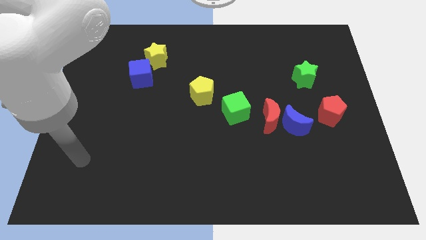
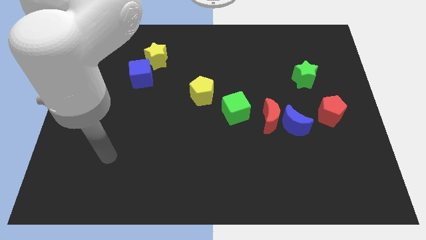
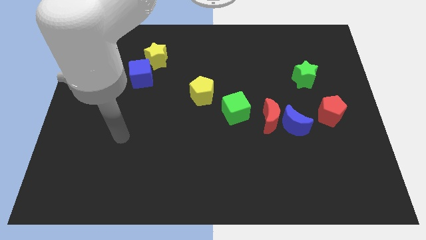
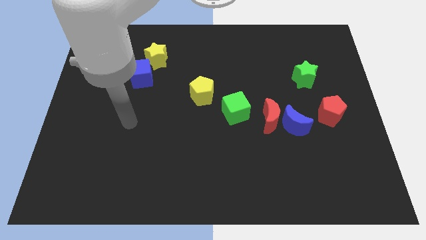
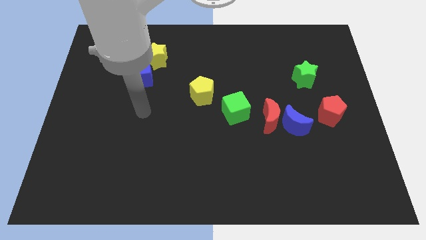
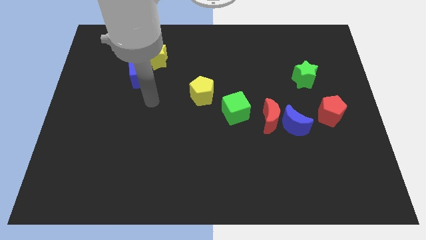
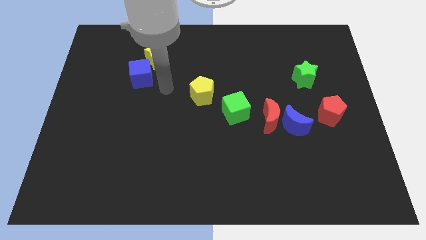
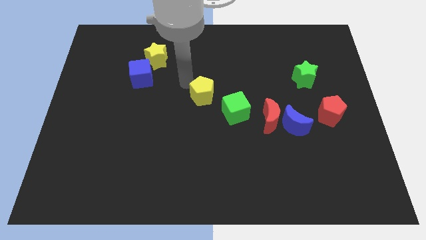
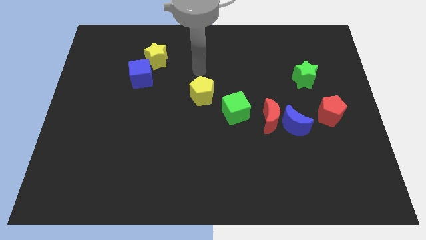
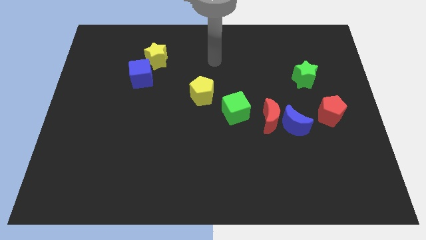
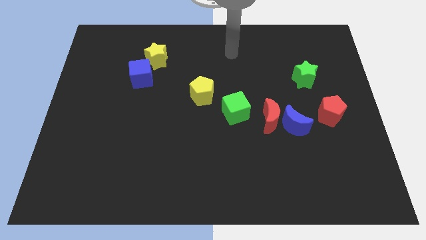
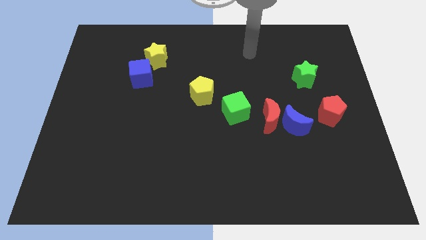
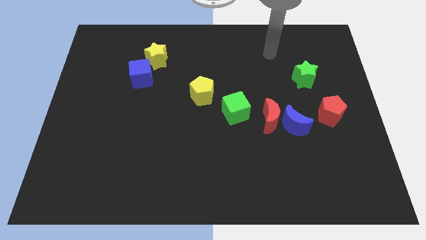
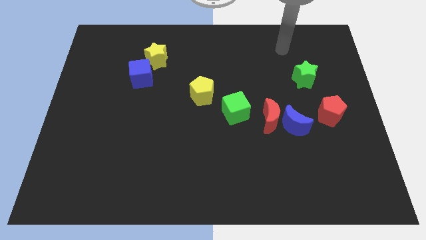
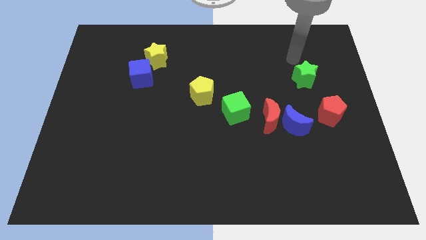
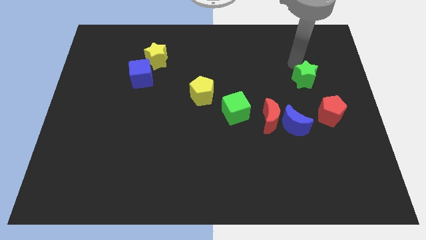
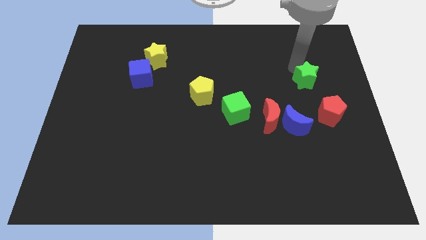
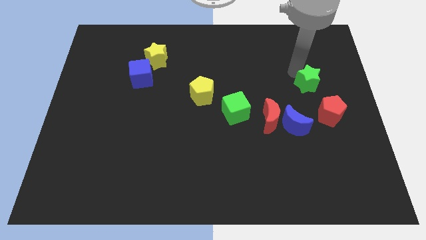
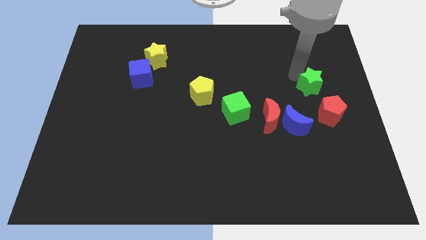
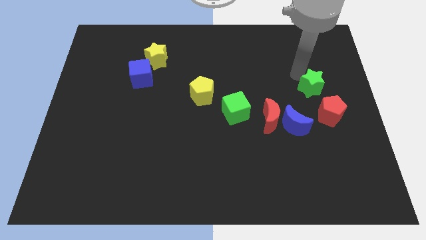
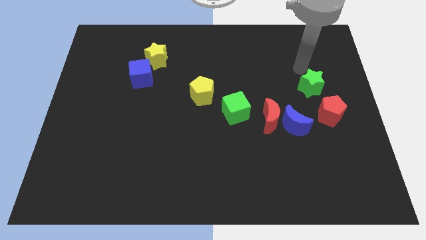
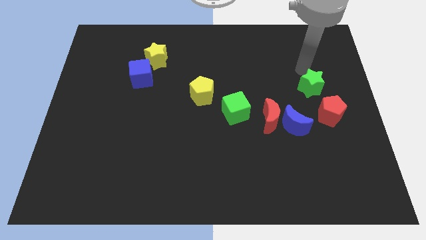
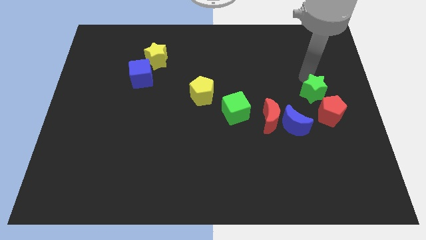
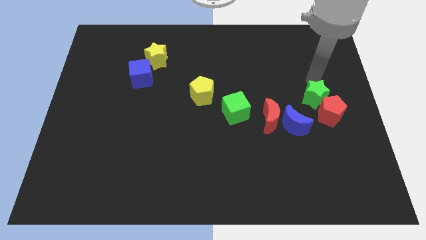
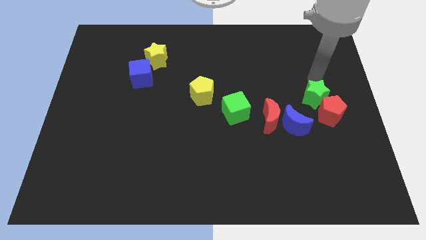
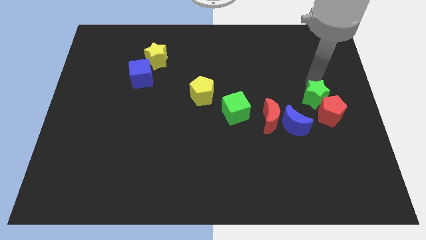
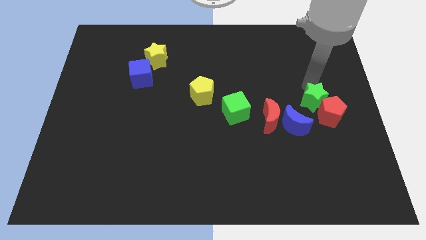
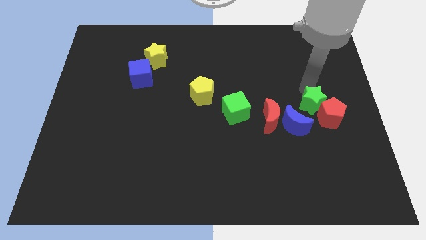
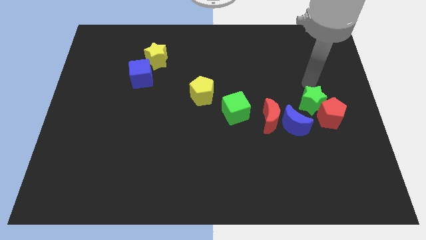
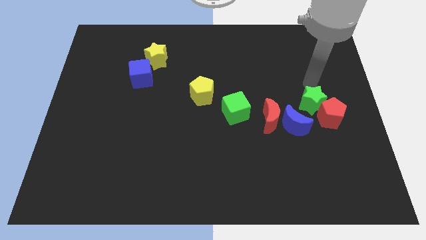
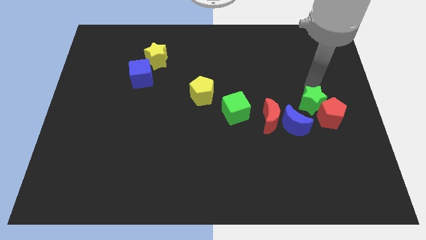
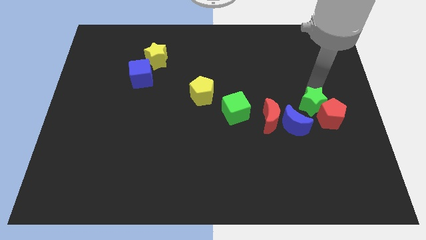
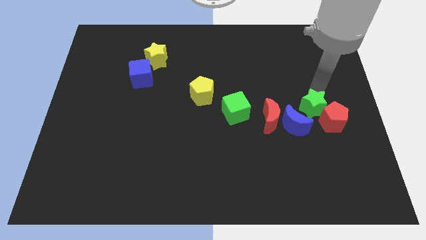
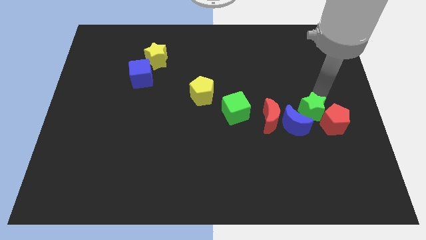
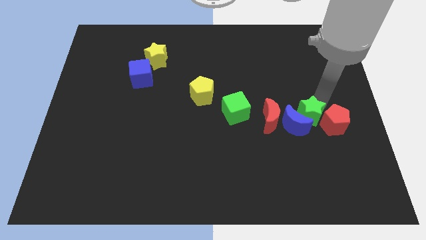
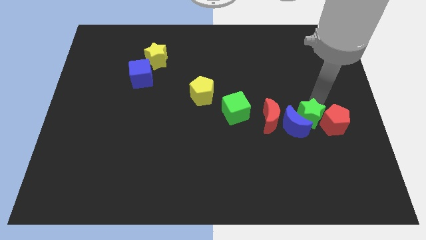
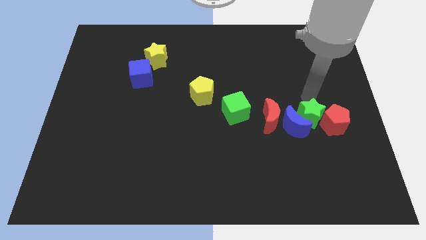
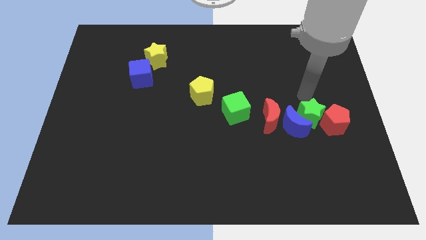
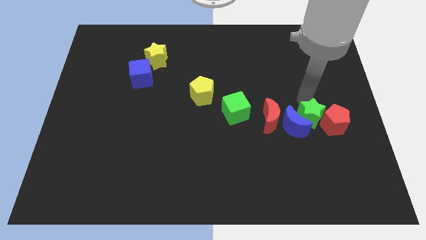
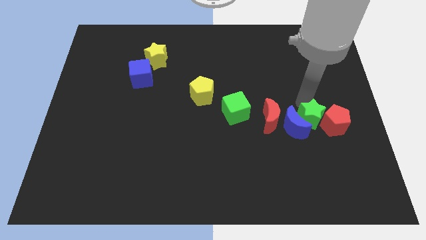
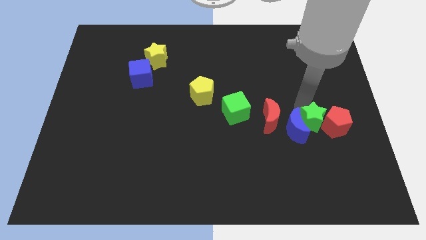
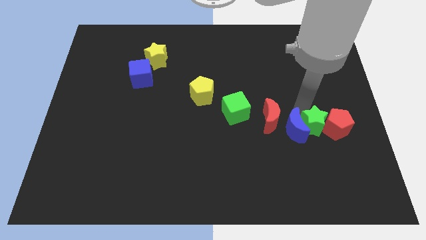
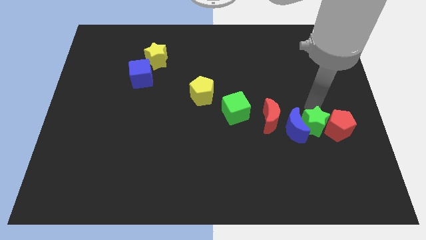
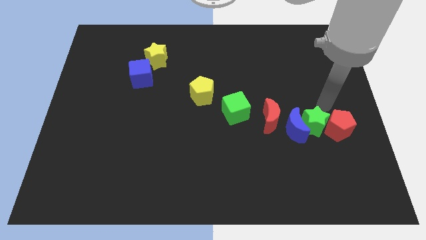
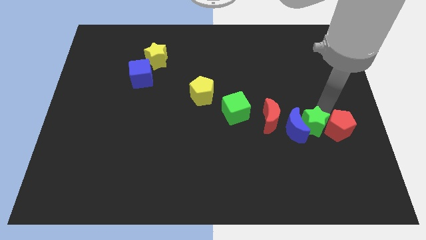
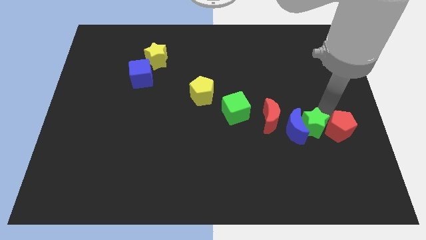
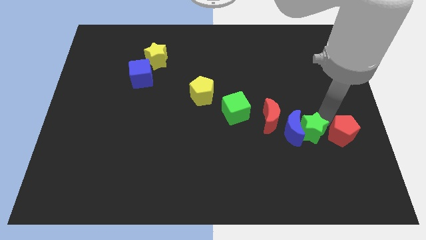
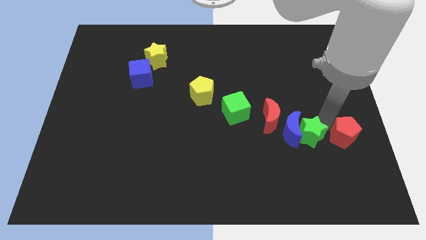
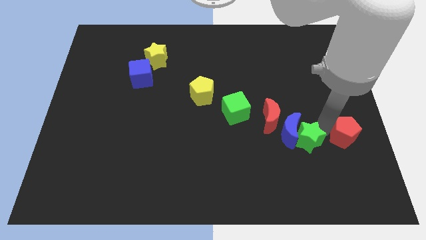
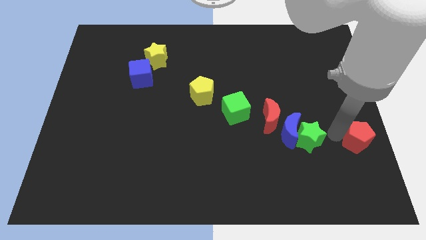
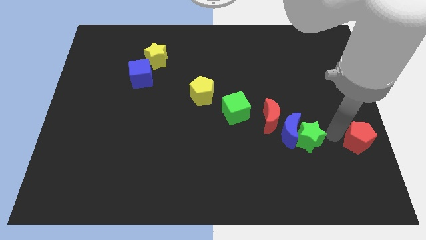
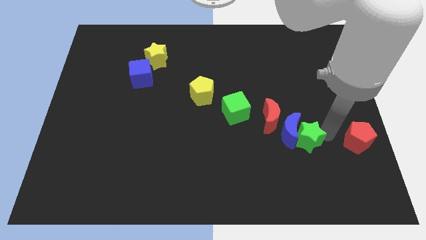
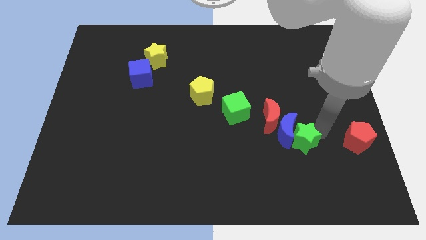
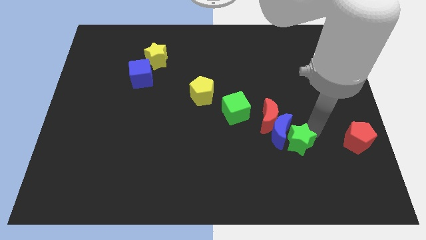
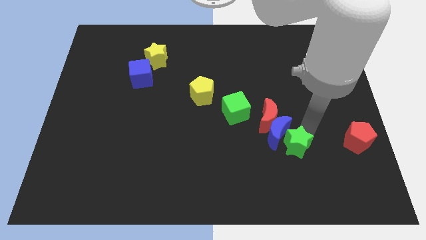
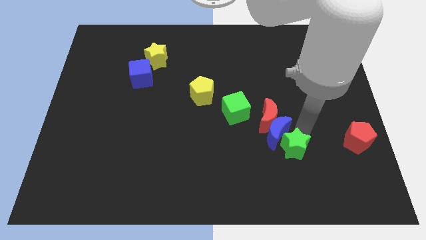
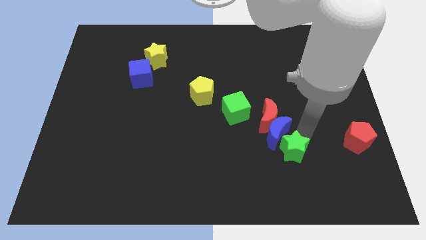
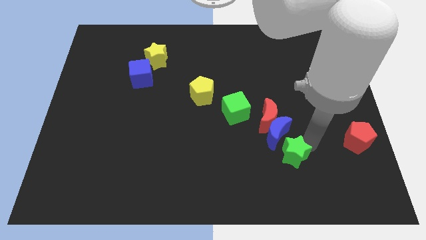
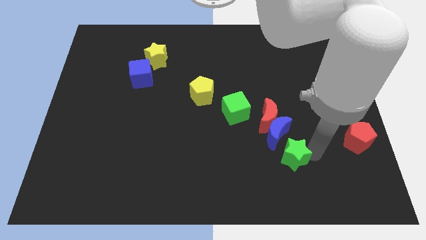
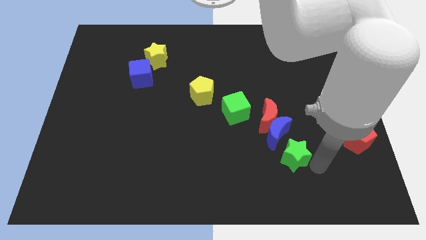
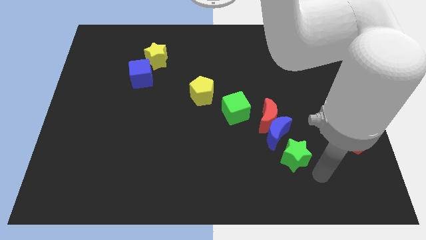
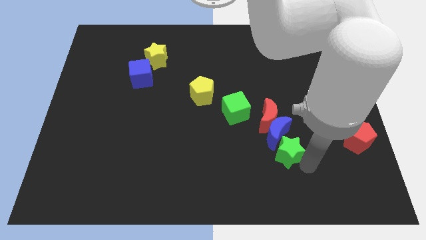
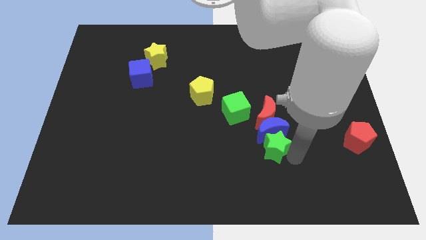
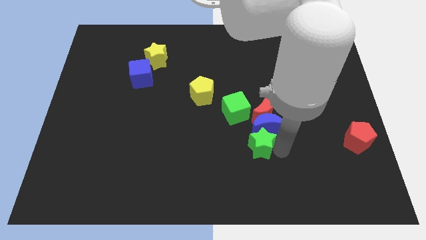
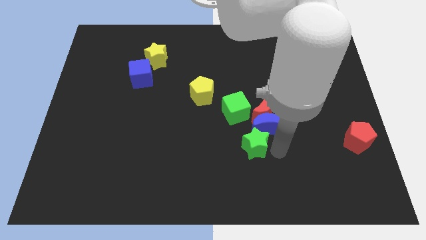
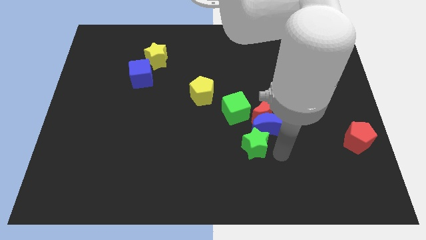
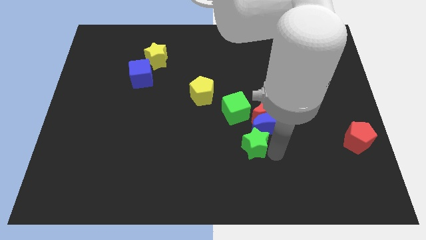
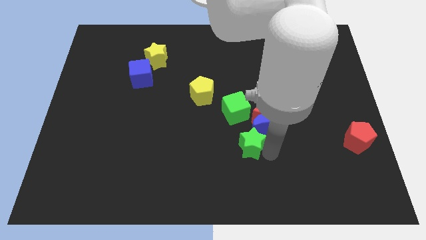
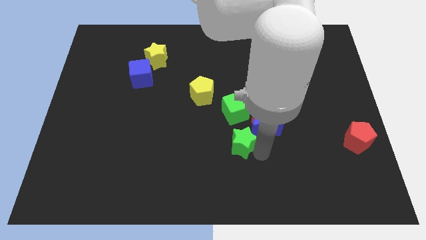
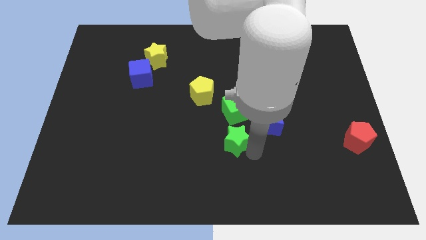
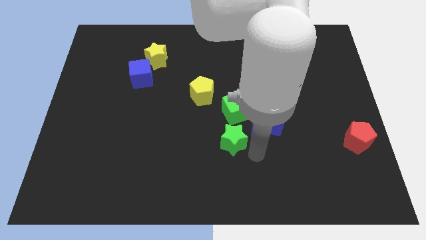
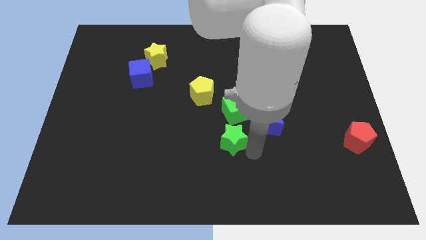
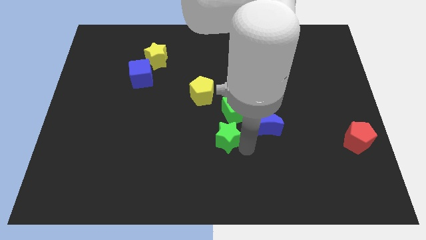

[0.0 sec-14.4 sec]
slide the green star to the bottom left side of the green cube
